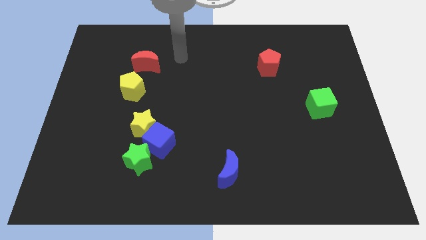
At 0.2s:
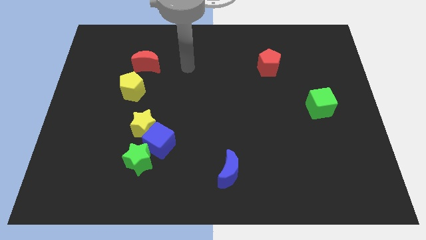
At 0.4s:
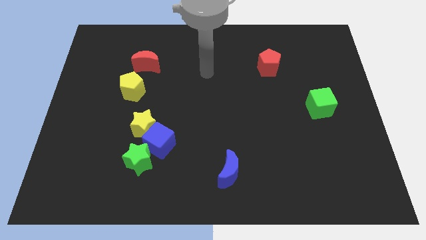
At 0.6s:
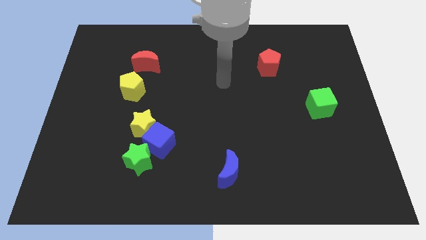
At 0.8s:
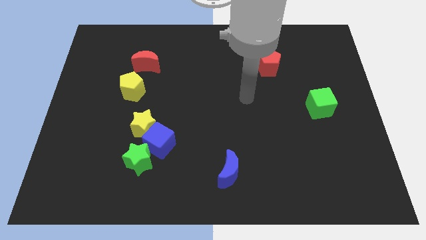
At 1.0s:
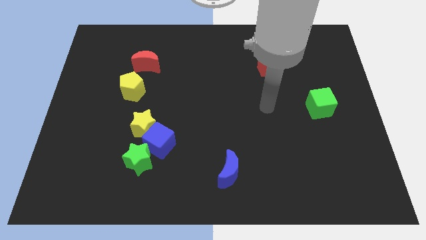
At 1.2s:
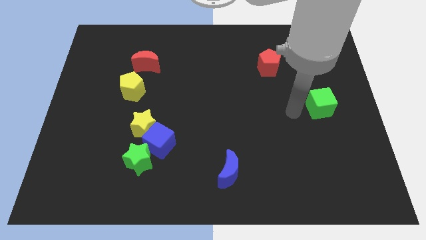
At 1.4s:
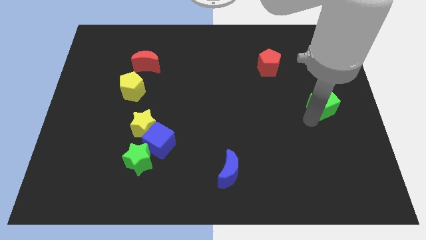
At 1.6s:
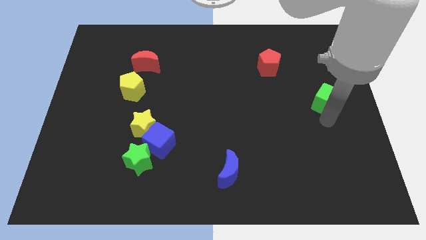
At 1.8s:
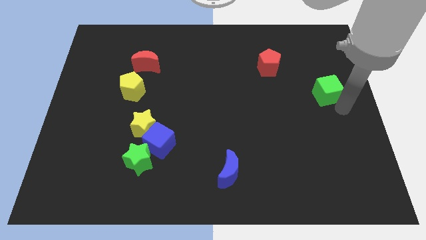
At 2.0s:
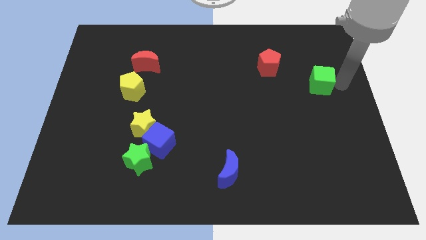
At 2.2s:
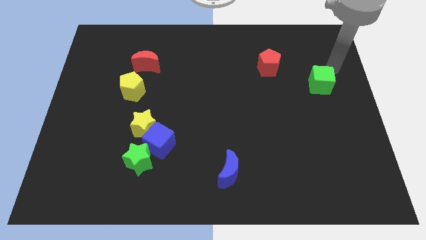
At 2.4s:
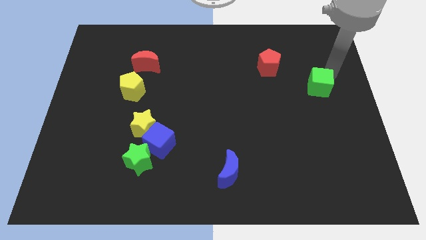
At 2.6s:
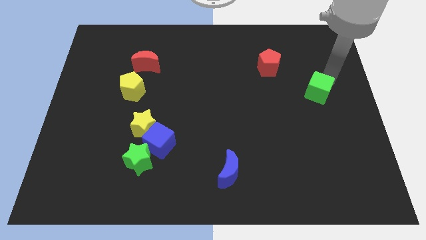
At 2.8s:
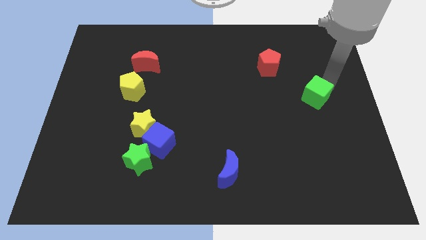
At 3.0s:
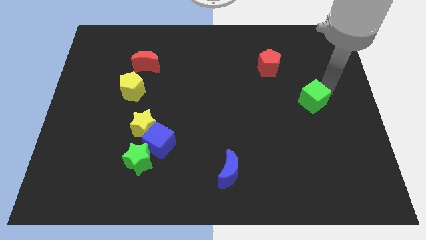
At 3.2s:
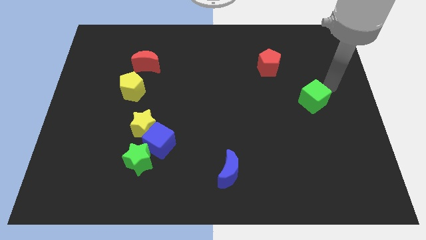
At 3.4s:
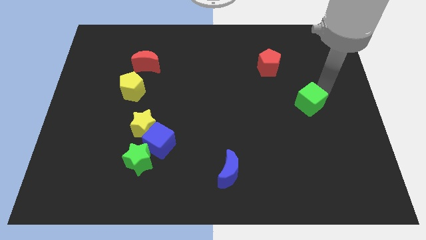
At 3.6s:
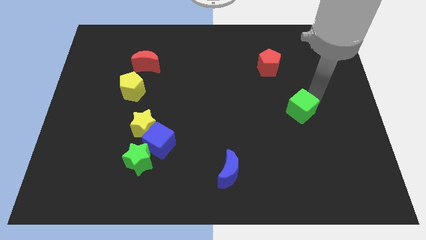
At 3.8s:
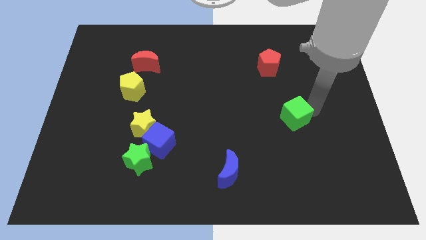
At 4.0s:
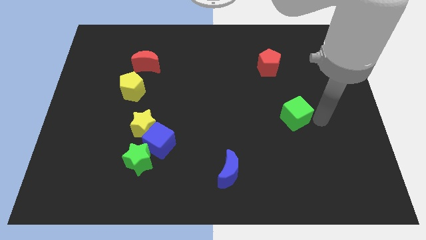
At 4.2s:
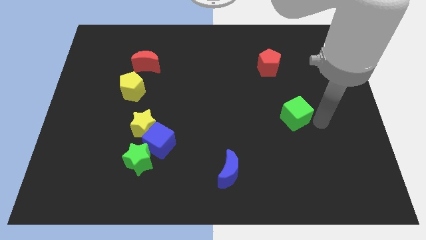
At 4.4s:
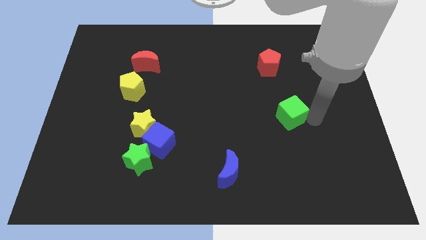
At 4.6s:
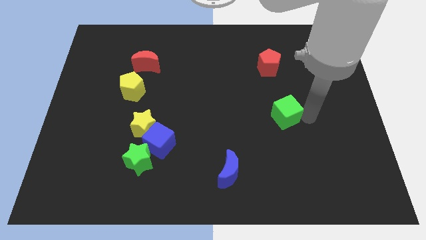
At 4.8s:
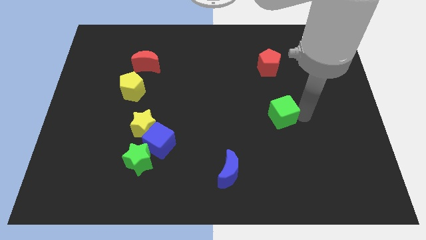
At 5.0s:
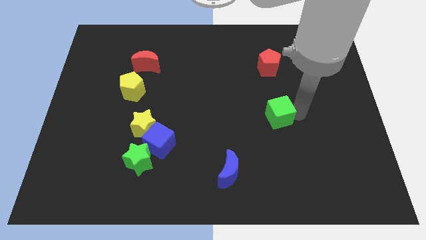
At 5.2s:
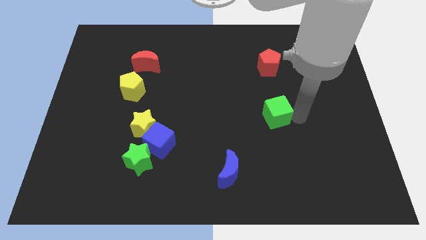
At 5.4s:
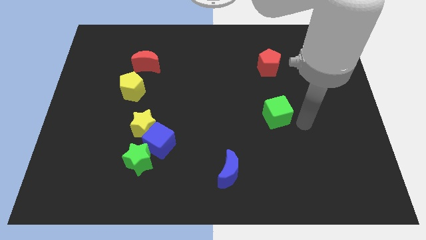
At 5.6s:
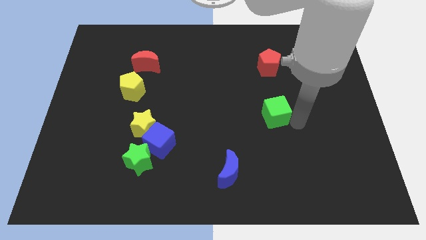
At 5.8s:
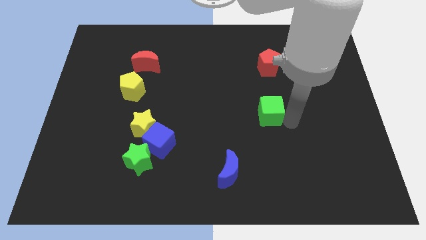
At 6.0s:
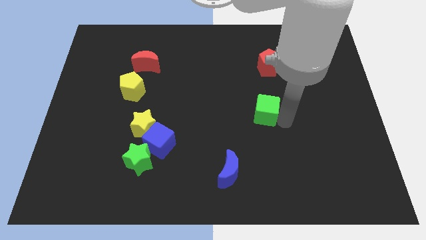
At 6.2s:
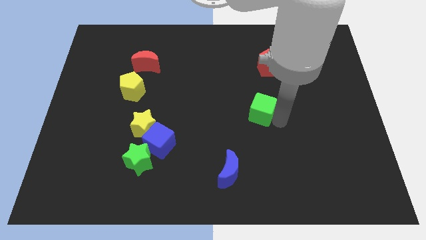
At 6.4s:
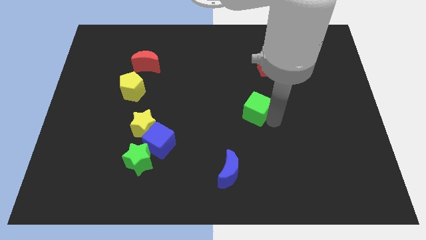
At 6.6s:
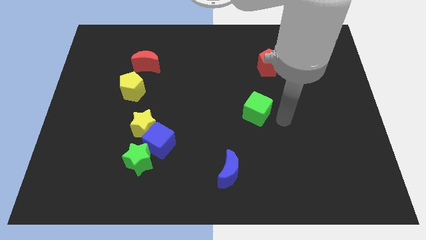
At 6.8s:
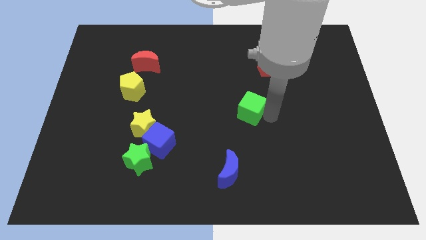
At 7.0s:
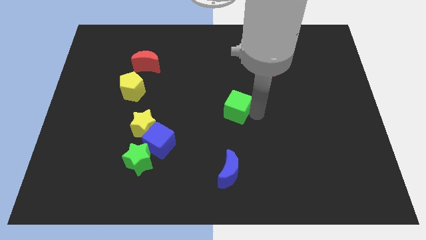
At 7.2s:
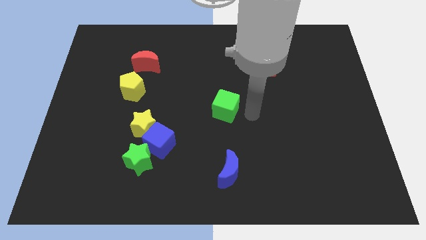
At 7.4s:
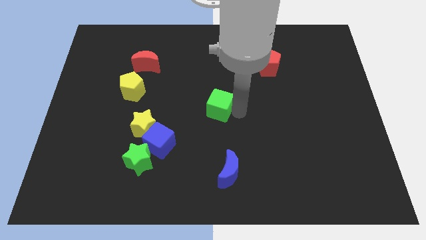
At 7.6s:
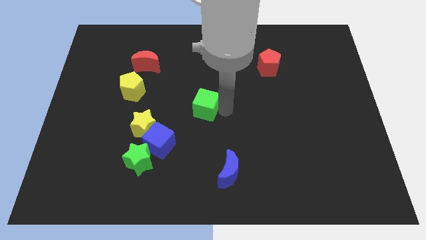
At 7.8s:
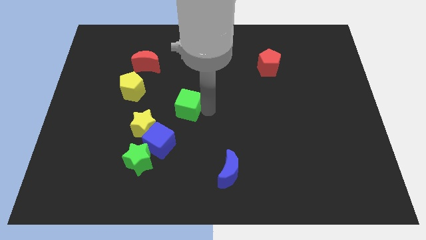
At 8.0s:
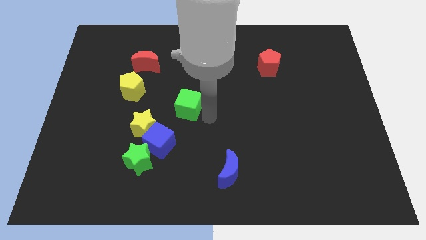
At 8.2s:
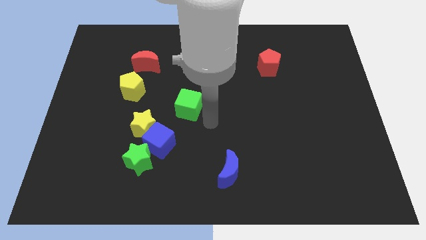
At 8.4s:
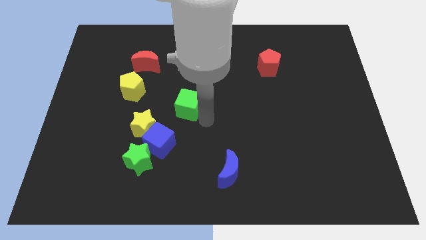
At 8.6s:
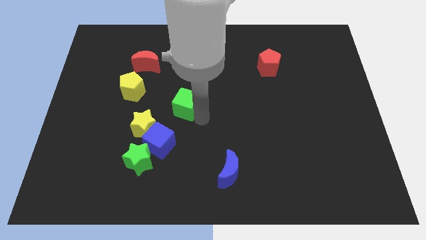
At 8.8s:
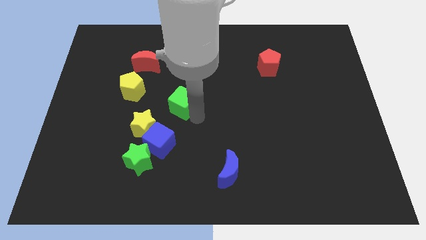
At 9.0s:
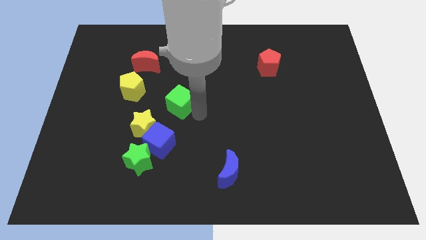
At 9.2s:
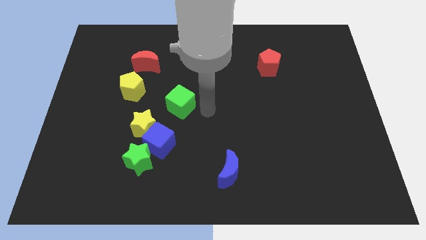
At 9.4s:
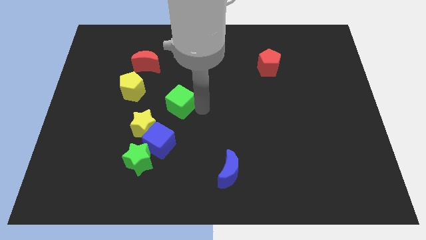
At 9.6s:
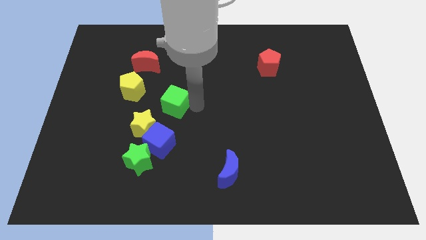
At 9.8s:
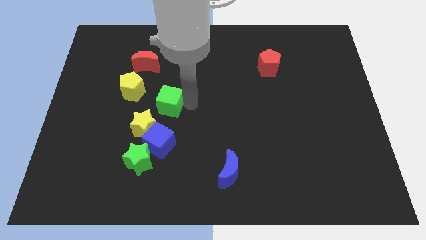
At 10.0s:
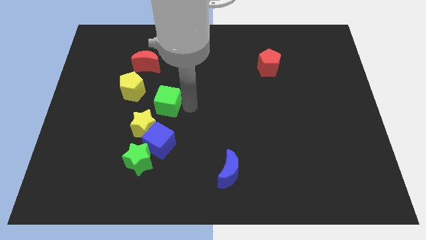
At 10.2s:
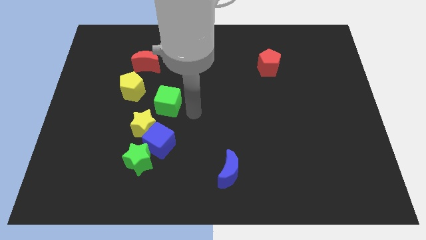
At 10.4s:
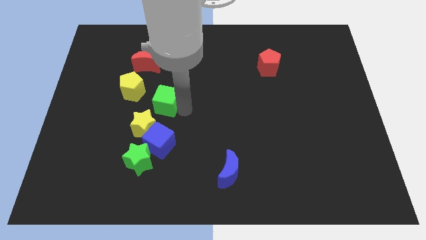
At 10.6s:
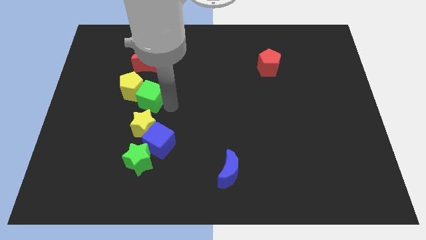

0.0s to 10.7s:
push the green cube close to the yellow pentagon

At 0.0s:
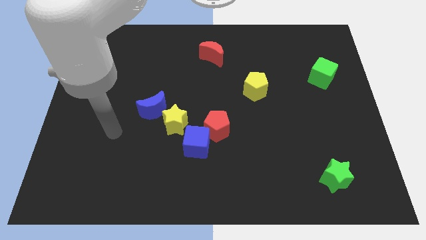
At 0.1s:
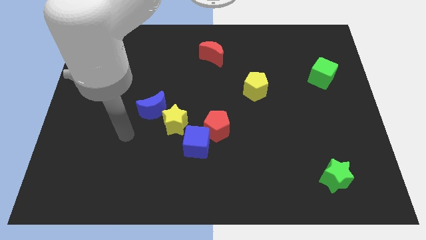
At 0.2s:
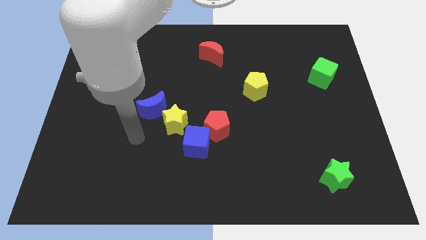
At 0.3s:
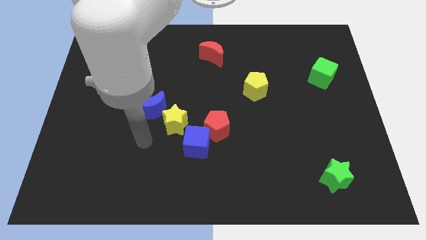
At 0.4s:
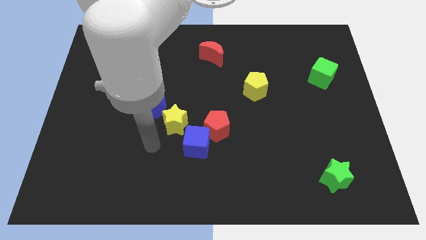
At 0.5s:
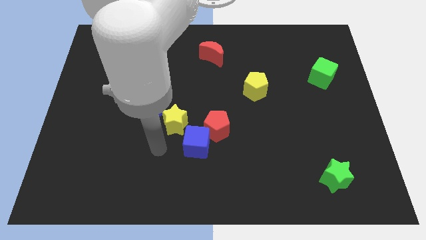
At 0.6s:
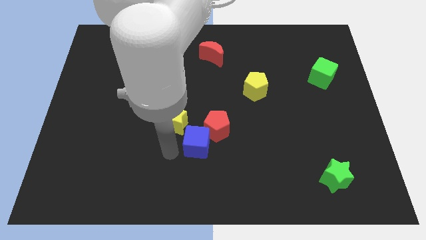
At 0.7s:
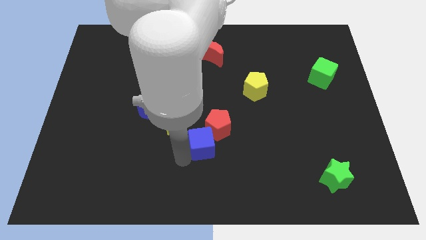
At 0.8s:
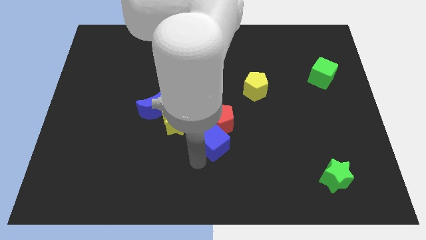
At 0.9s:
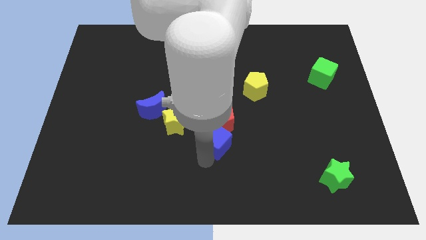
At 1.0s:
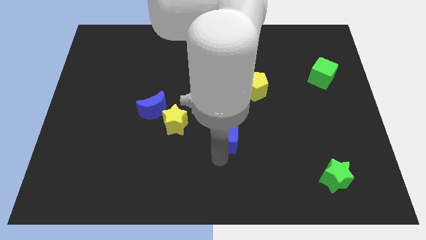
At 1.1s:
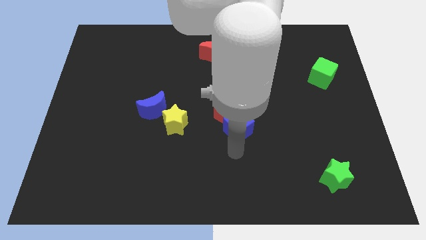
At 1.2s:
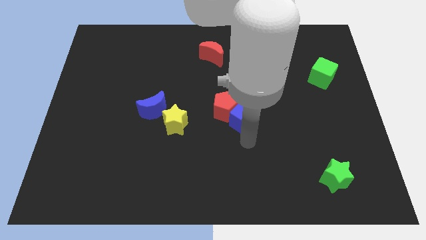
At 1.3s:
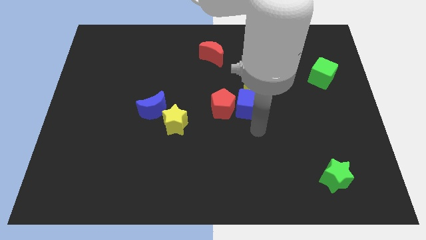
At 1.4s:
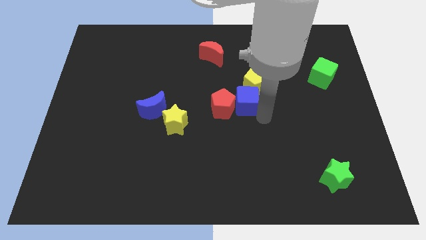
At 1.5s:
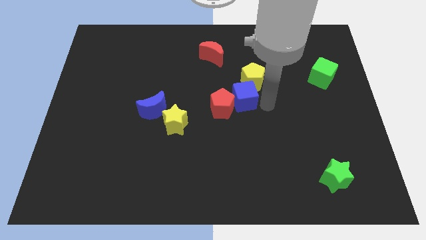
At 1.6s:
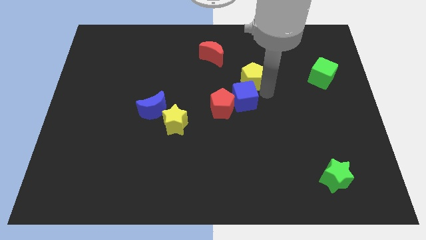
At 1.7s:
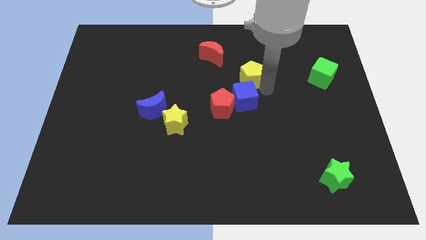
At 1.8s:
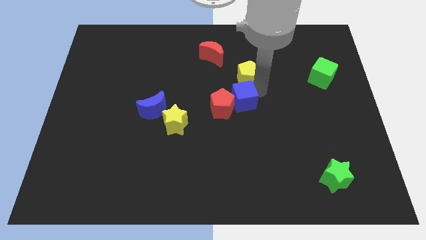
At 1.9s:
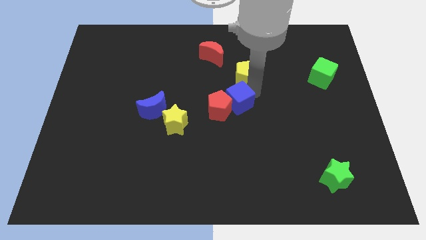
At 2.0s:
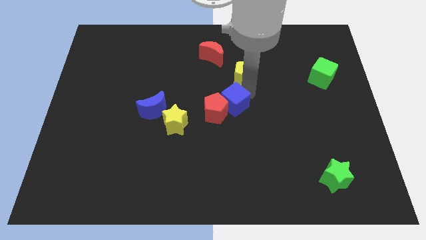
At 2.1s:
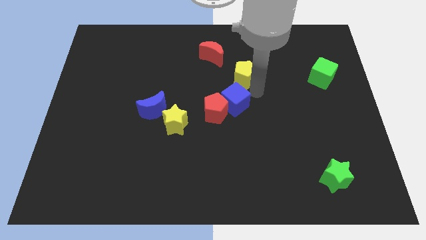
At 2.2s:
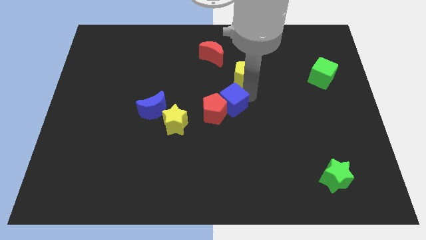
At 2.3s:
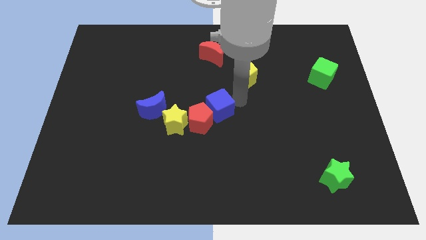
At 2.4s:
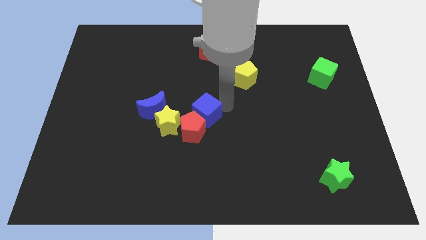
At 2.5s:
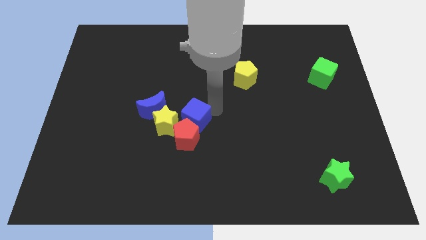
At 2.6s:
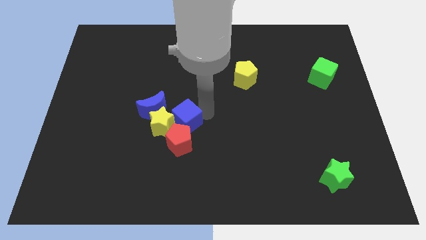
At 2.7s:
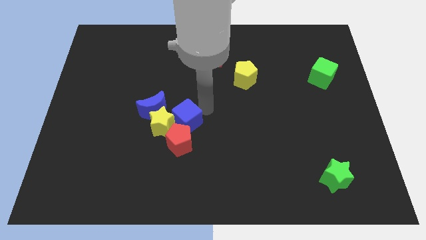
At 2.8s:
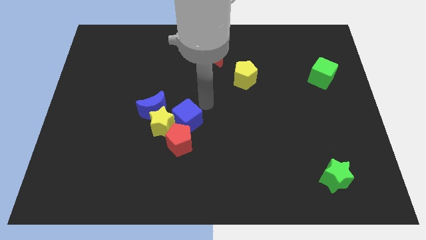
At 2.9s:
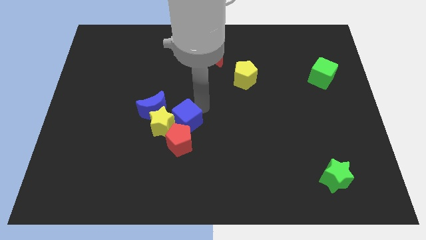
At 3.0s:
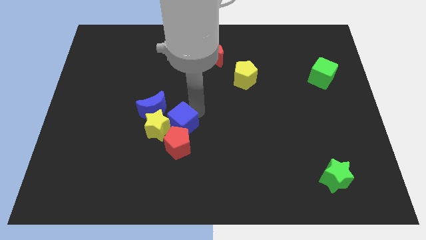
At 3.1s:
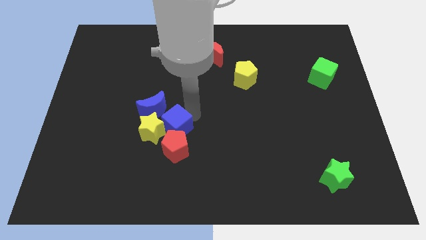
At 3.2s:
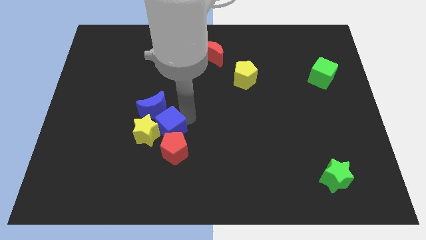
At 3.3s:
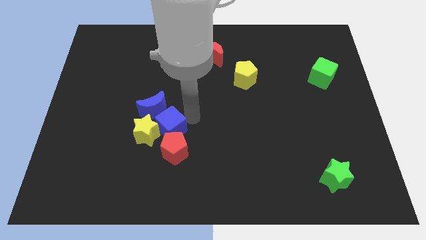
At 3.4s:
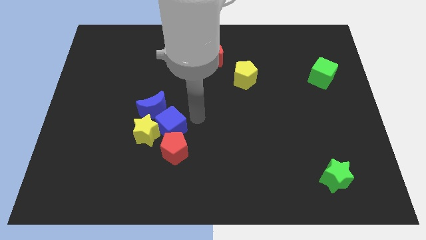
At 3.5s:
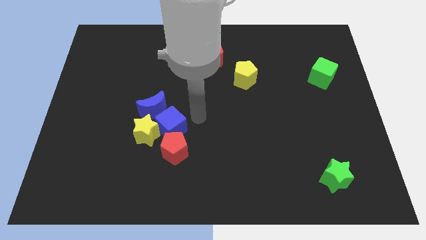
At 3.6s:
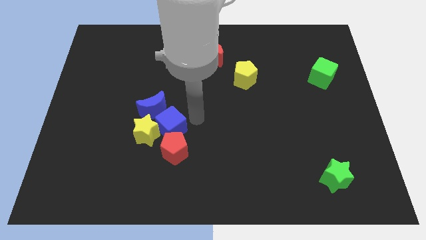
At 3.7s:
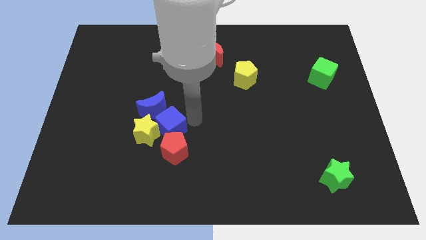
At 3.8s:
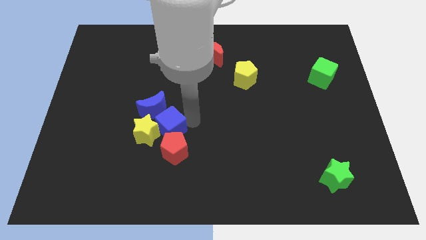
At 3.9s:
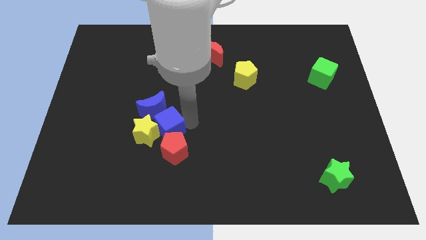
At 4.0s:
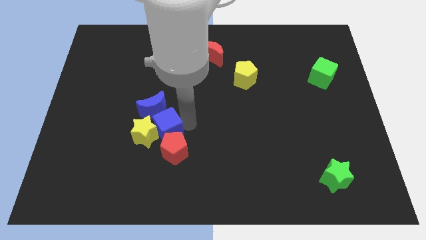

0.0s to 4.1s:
put the blue cube next to the blue moon
